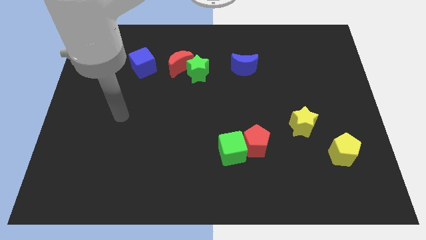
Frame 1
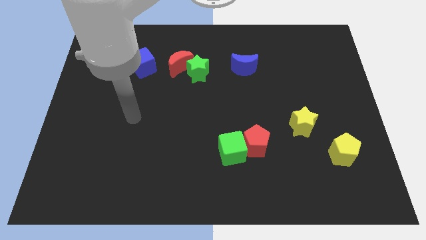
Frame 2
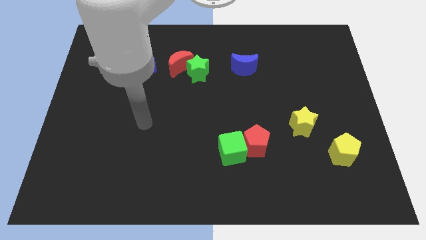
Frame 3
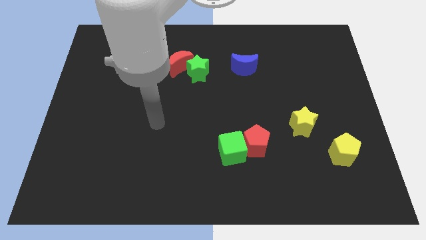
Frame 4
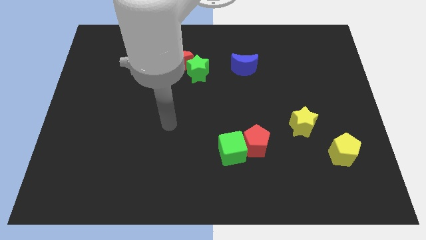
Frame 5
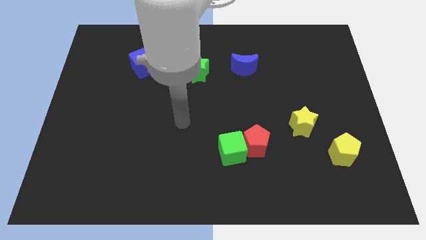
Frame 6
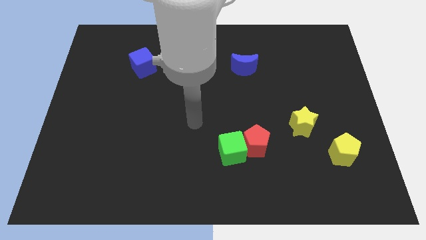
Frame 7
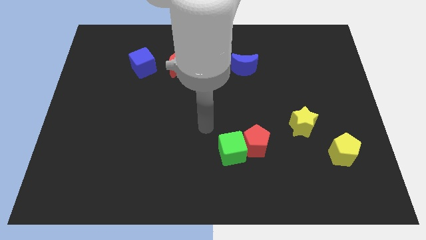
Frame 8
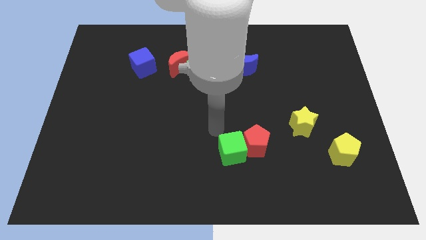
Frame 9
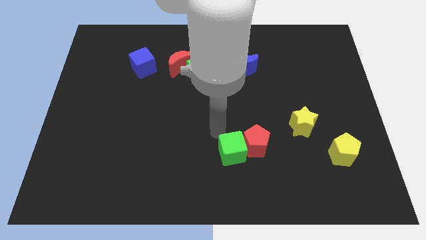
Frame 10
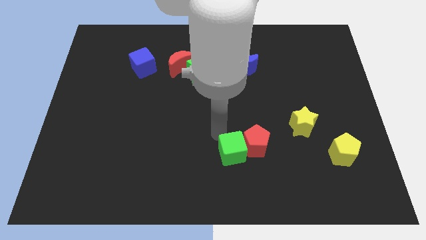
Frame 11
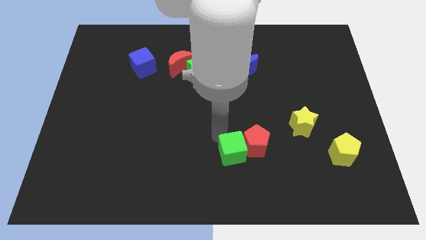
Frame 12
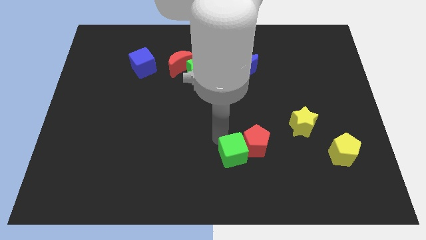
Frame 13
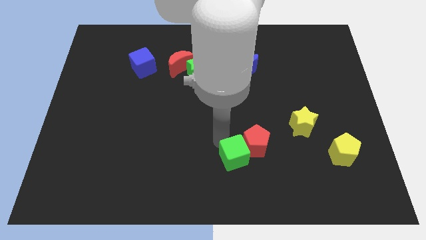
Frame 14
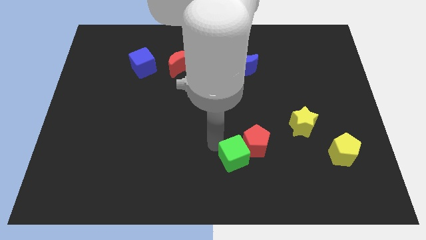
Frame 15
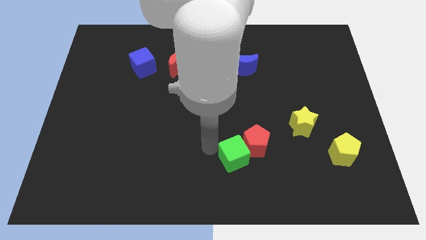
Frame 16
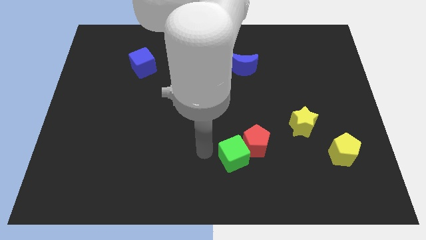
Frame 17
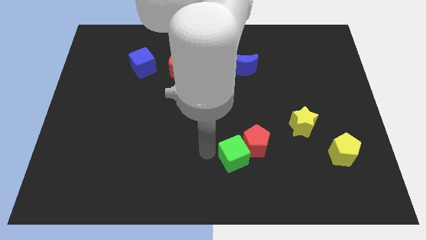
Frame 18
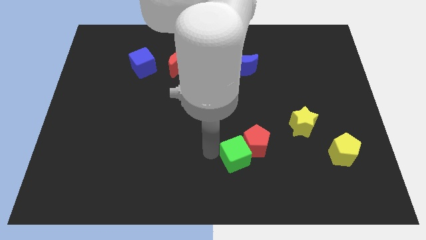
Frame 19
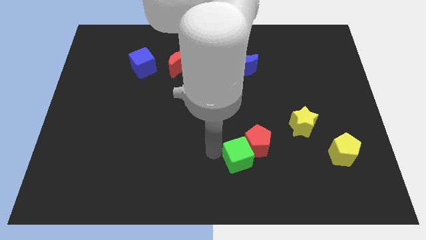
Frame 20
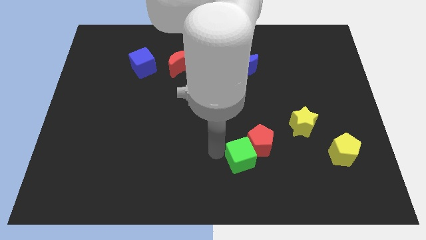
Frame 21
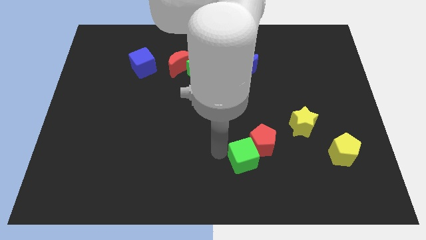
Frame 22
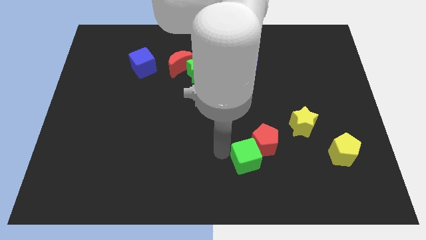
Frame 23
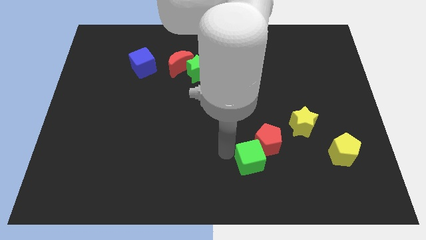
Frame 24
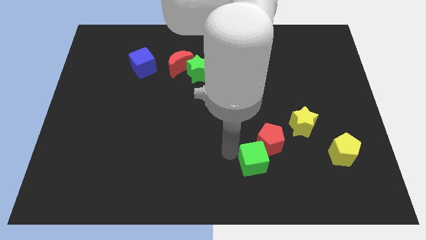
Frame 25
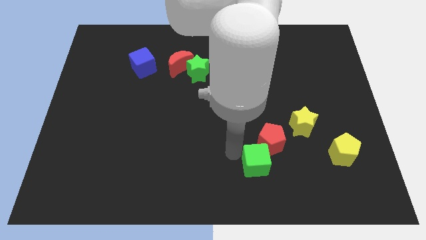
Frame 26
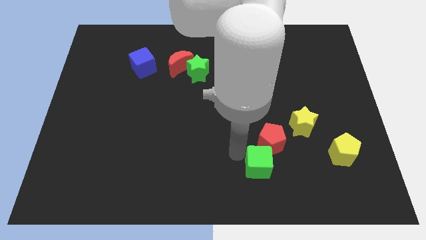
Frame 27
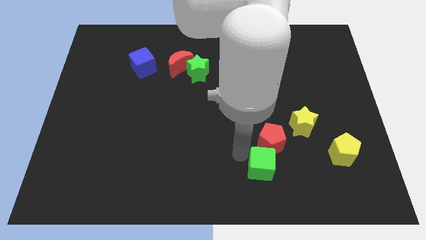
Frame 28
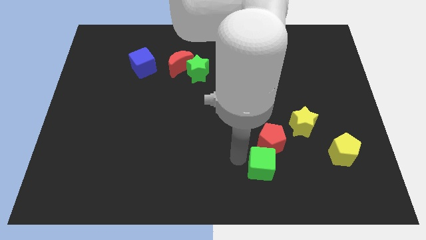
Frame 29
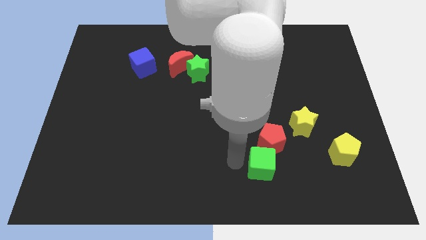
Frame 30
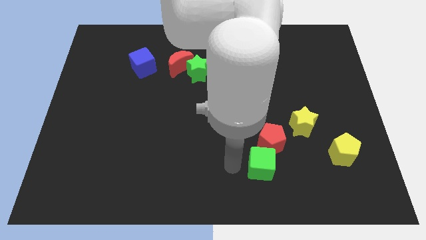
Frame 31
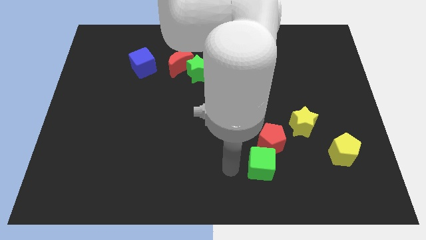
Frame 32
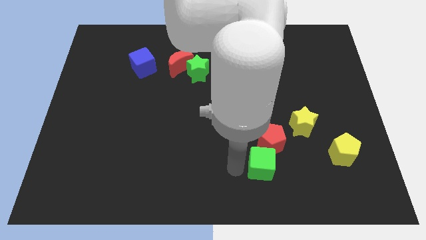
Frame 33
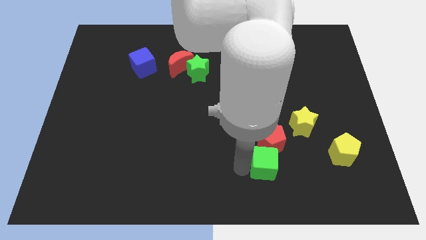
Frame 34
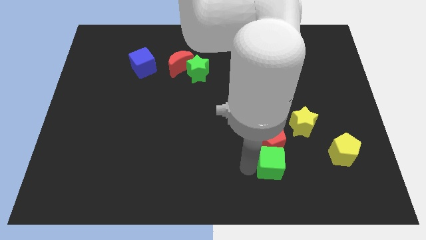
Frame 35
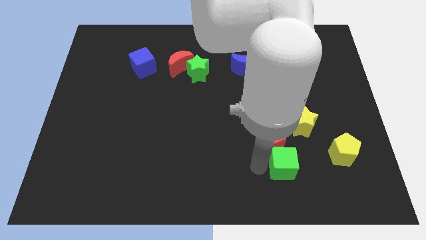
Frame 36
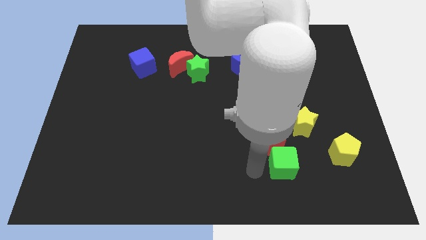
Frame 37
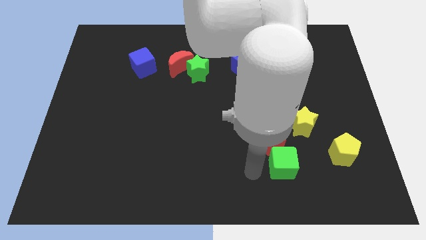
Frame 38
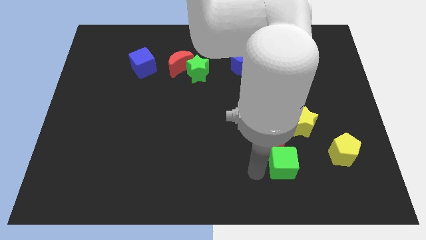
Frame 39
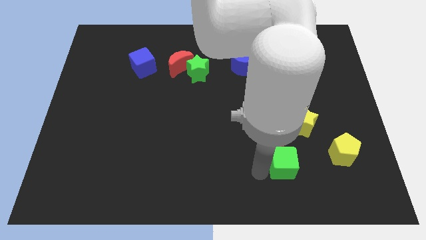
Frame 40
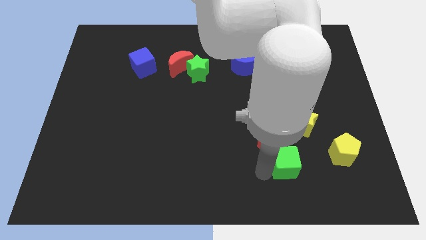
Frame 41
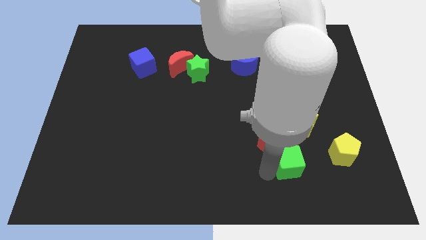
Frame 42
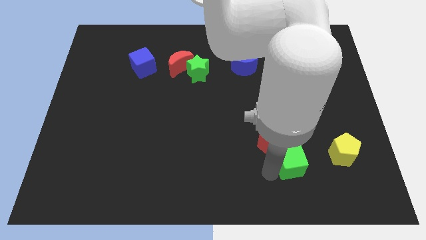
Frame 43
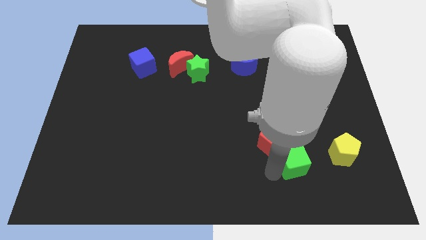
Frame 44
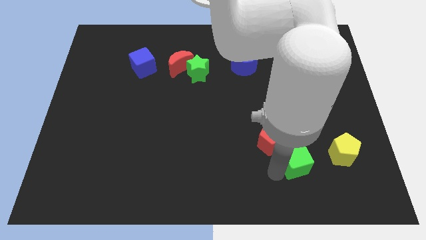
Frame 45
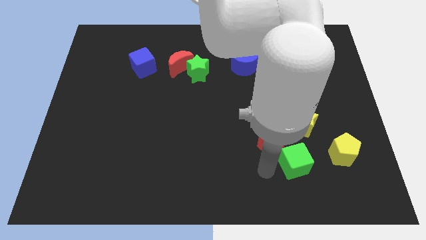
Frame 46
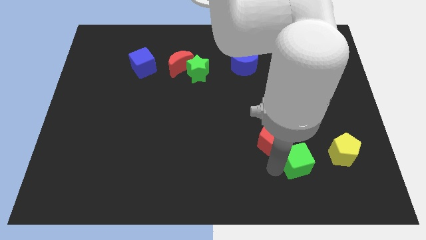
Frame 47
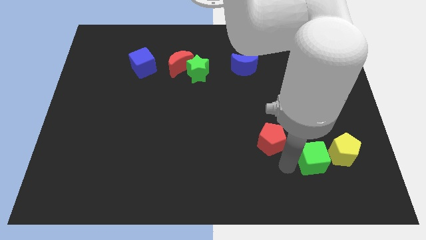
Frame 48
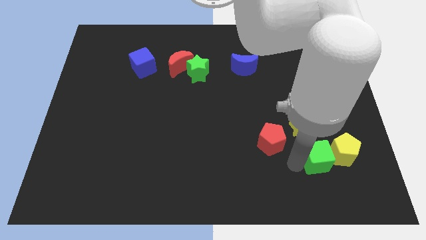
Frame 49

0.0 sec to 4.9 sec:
move the green cube close to the yellow pentagon

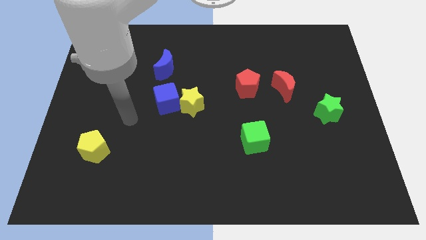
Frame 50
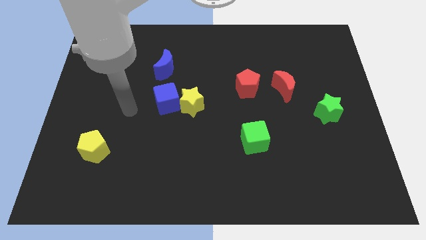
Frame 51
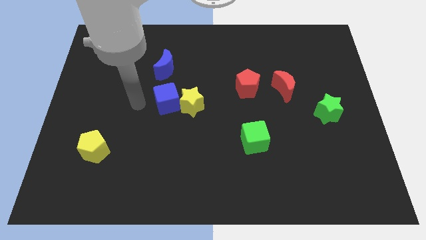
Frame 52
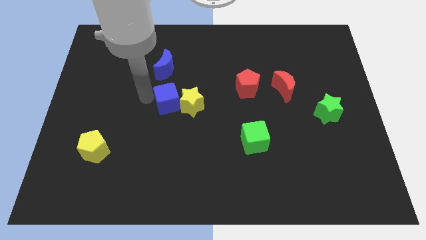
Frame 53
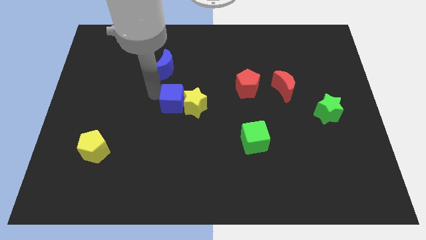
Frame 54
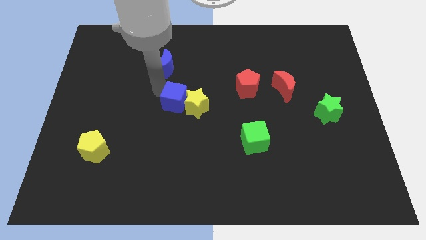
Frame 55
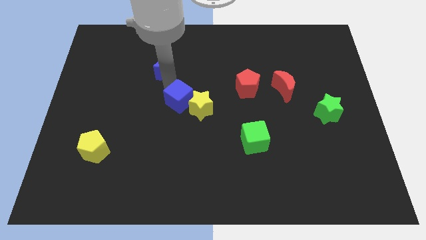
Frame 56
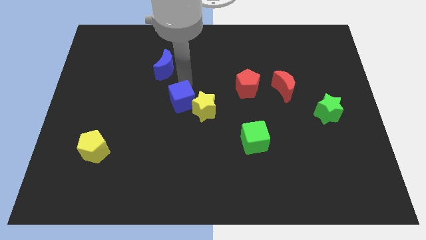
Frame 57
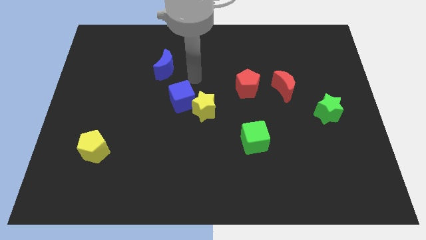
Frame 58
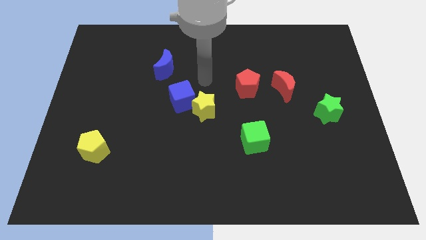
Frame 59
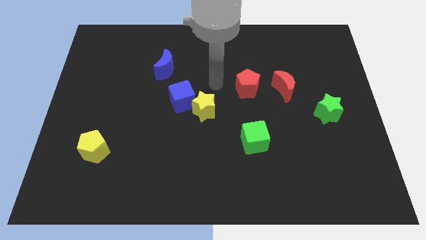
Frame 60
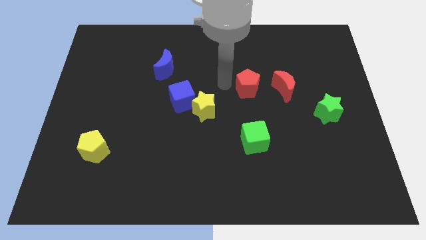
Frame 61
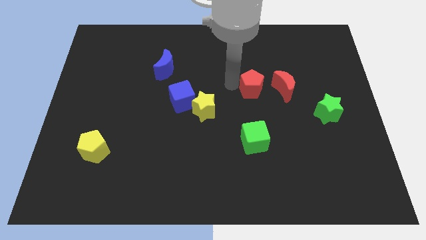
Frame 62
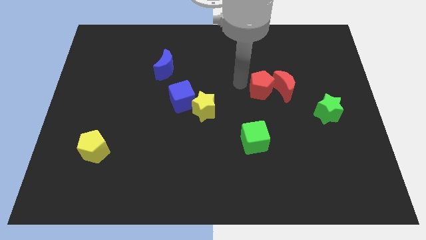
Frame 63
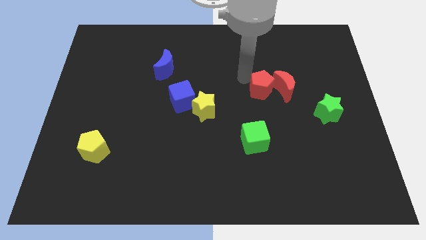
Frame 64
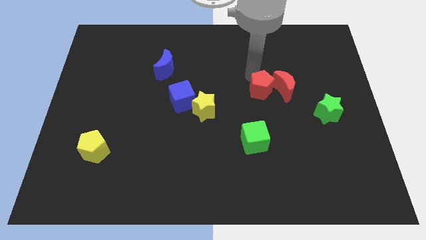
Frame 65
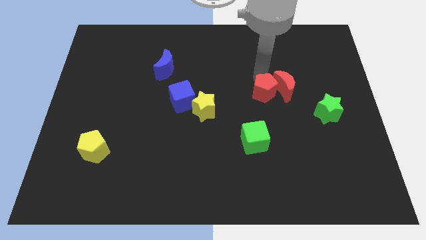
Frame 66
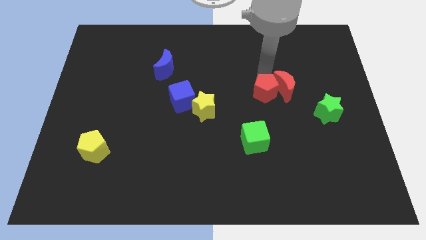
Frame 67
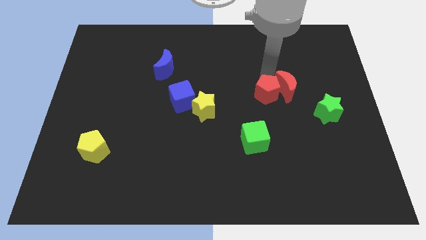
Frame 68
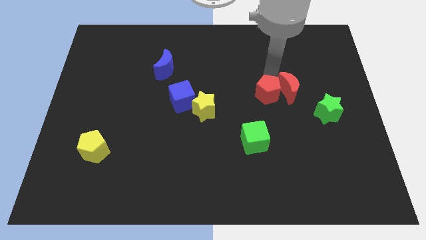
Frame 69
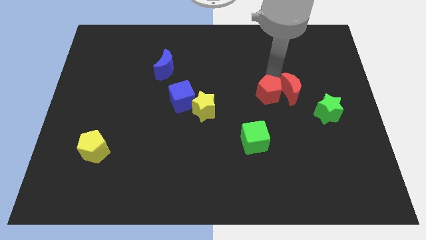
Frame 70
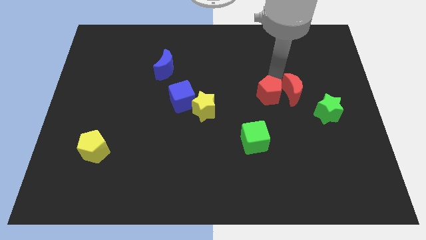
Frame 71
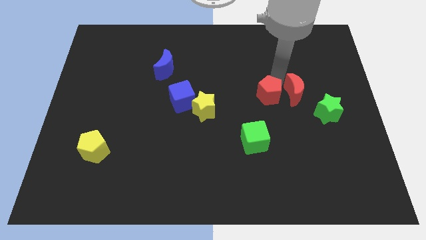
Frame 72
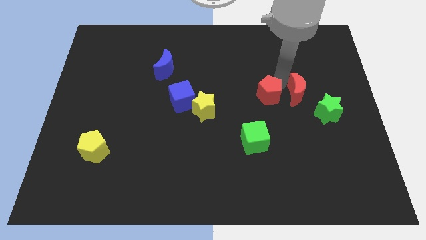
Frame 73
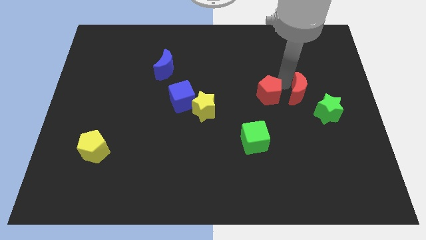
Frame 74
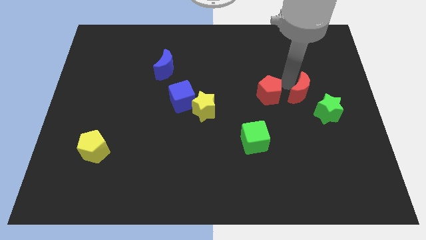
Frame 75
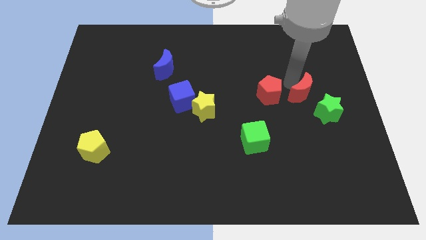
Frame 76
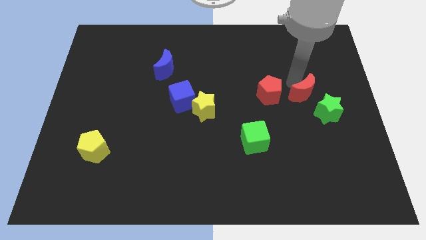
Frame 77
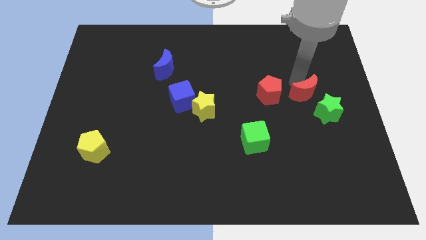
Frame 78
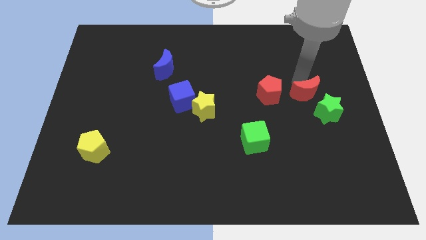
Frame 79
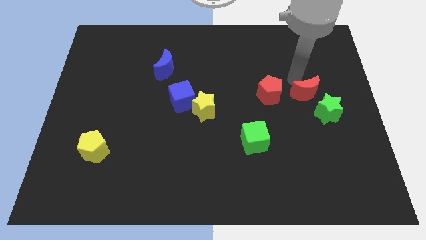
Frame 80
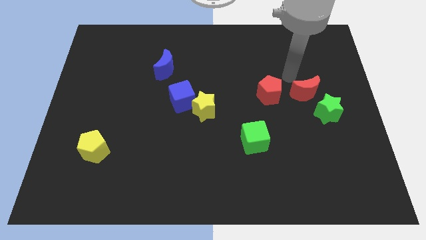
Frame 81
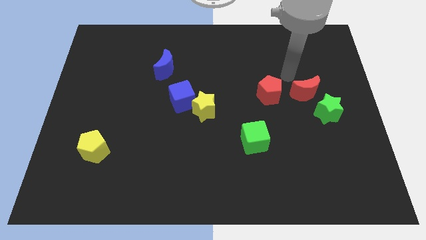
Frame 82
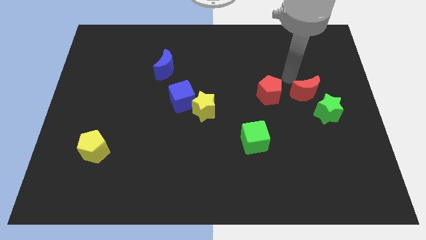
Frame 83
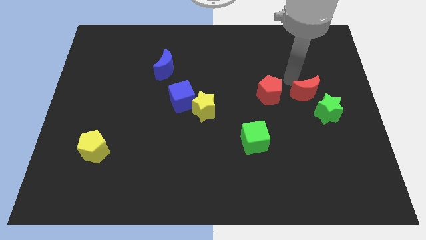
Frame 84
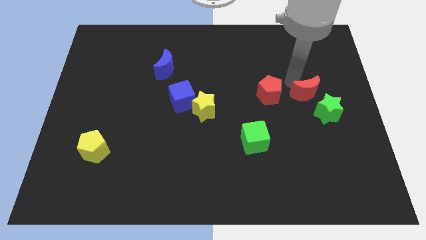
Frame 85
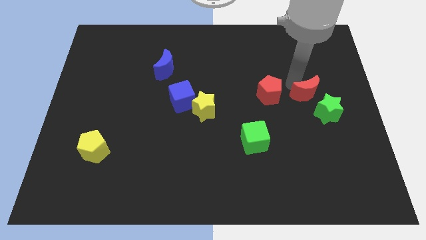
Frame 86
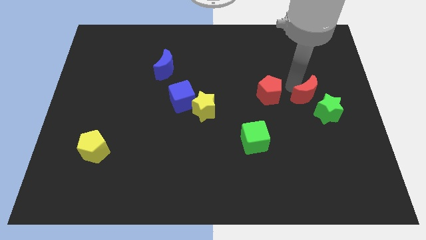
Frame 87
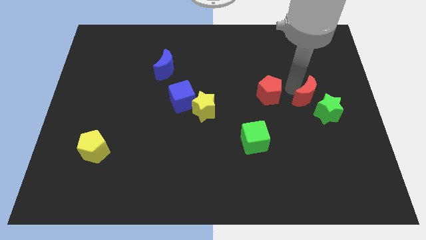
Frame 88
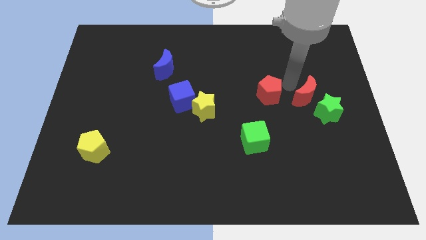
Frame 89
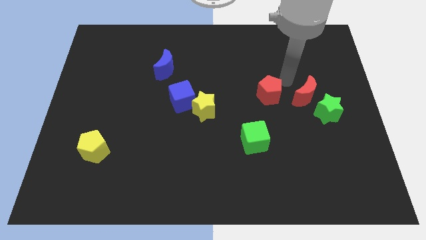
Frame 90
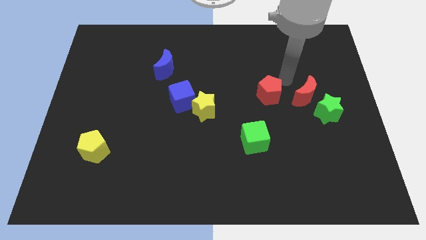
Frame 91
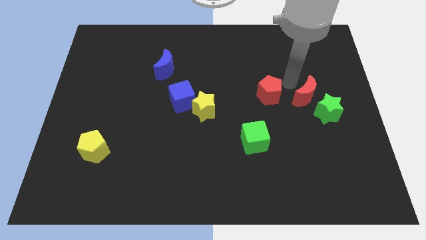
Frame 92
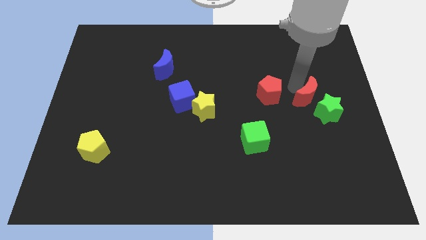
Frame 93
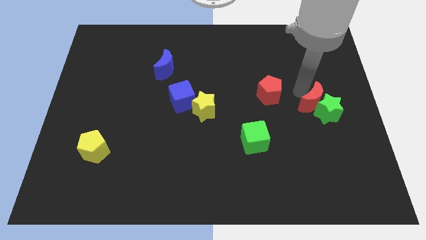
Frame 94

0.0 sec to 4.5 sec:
push the red moon next to the green star
